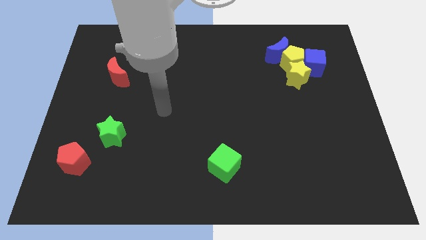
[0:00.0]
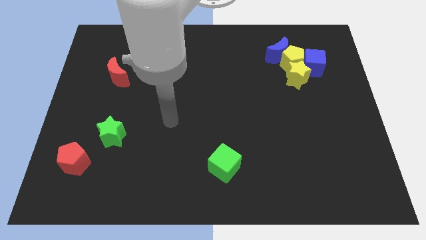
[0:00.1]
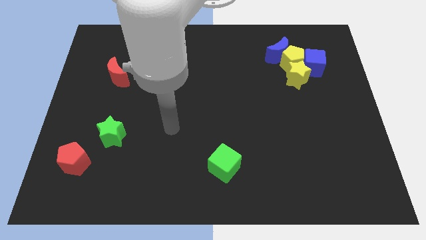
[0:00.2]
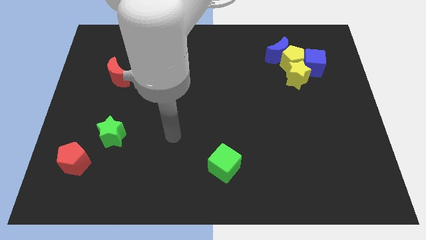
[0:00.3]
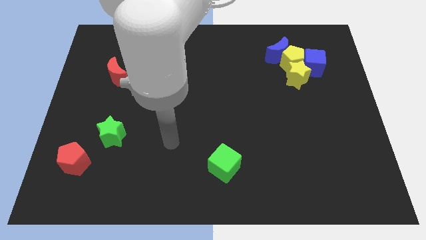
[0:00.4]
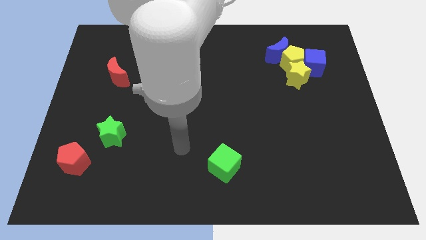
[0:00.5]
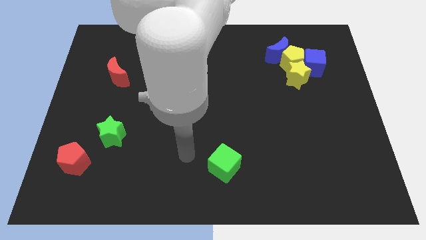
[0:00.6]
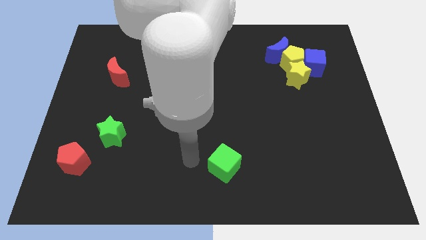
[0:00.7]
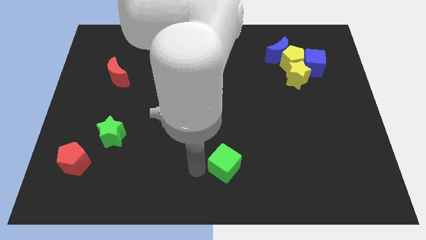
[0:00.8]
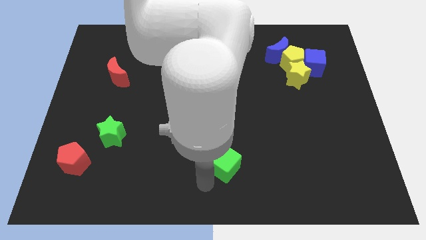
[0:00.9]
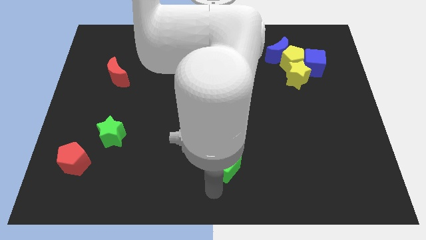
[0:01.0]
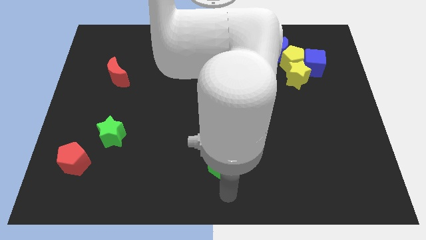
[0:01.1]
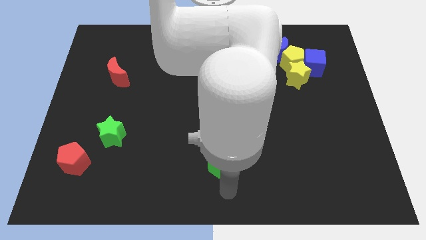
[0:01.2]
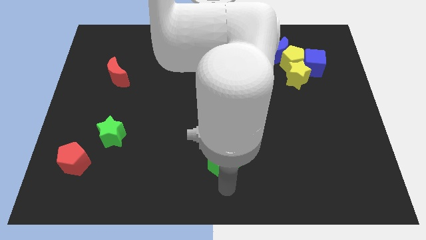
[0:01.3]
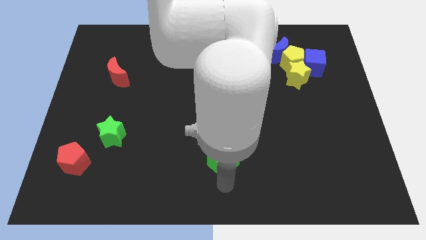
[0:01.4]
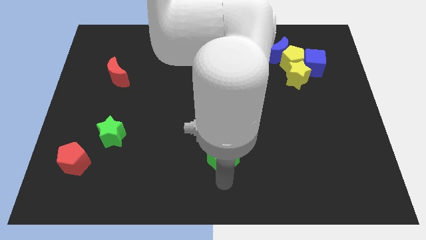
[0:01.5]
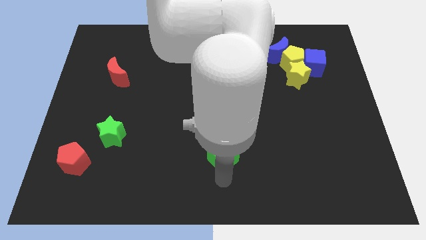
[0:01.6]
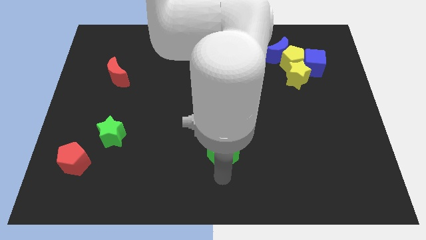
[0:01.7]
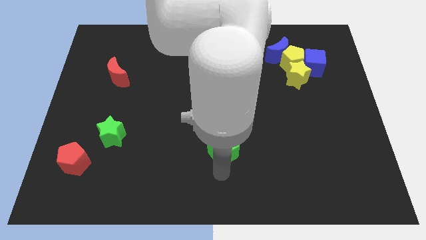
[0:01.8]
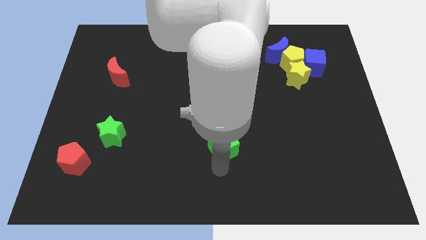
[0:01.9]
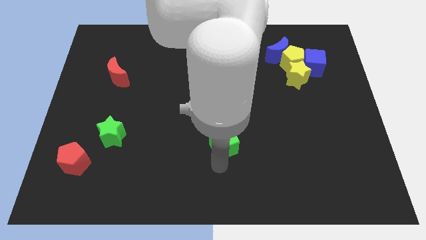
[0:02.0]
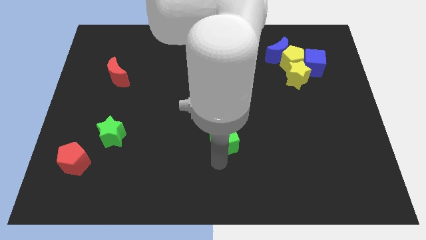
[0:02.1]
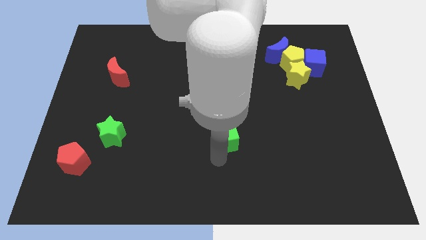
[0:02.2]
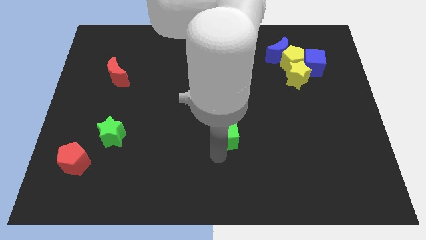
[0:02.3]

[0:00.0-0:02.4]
push the green cube a bit up

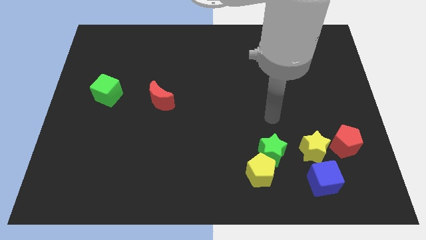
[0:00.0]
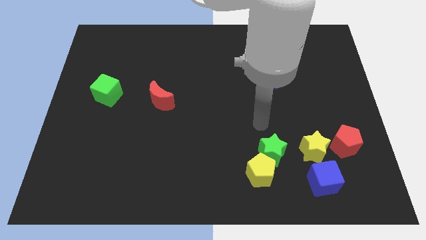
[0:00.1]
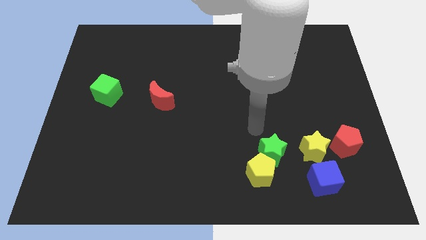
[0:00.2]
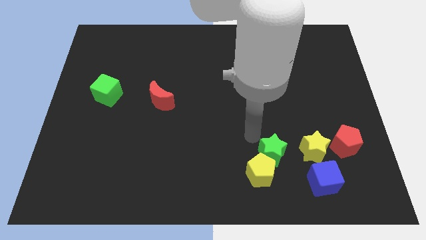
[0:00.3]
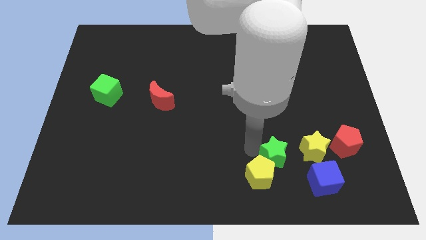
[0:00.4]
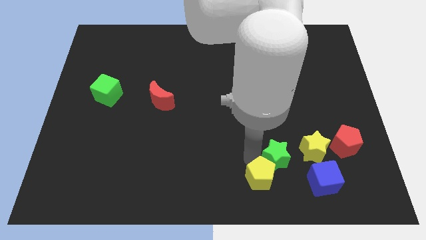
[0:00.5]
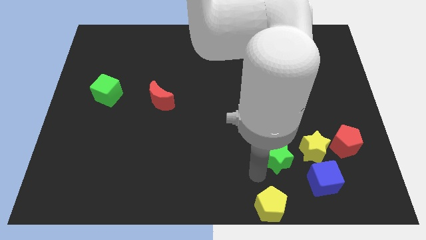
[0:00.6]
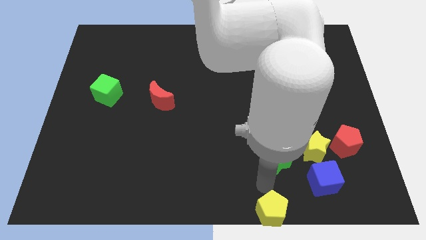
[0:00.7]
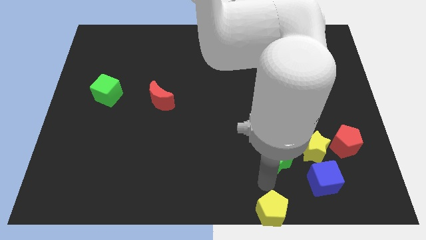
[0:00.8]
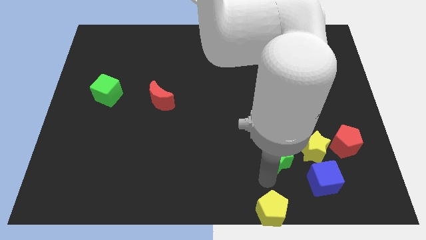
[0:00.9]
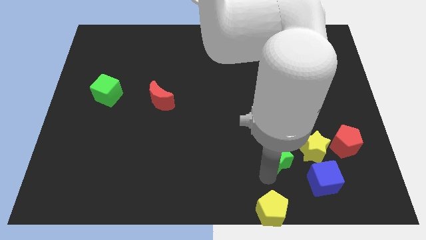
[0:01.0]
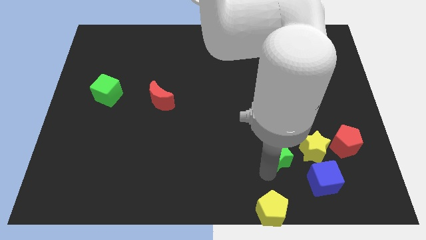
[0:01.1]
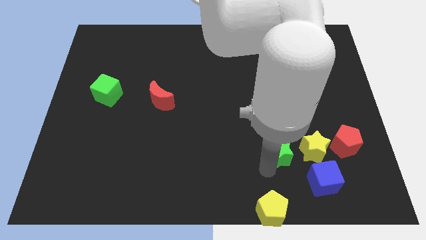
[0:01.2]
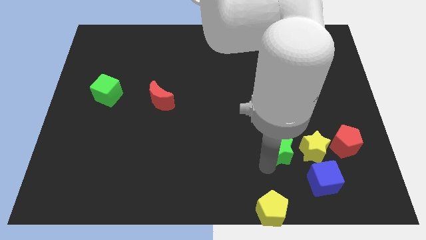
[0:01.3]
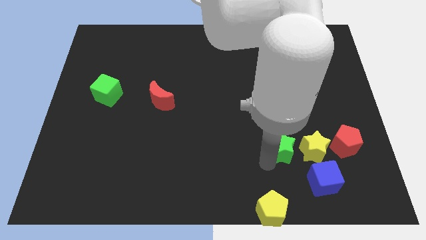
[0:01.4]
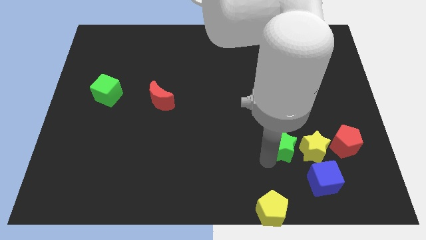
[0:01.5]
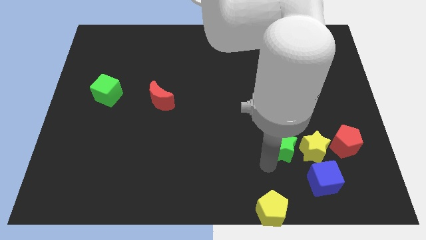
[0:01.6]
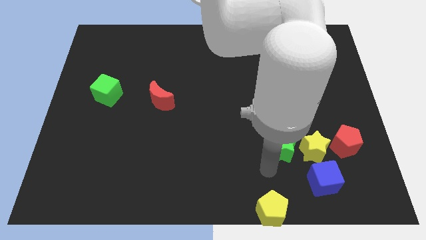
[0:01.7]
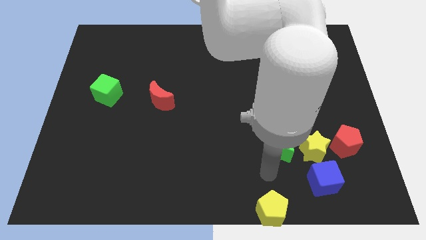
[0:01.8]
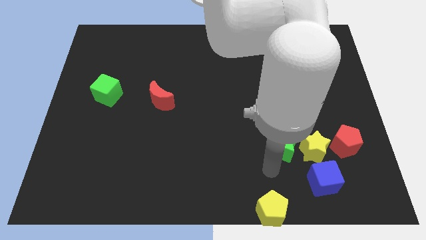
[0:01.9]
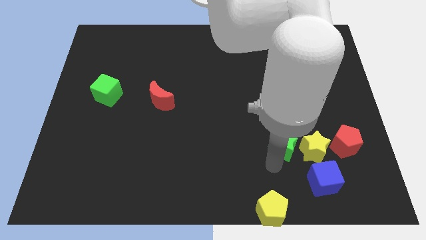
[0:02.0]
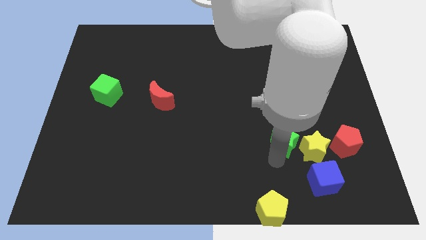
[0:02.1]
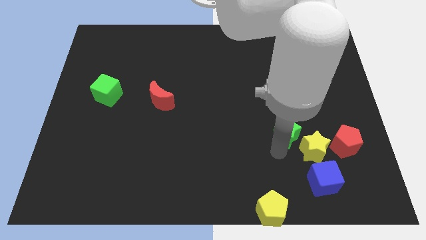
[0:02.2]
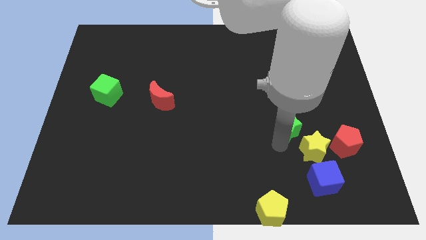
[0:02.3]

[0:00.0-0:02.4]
slide the green star a little up and then right

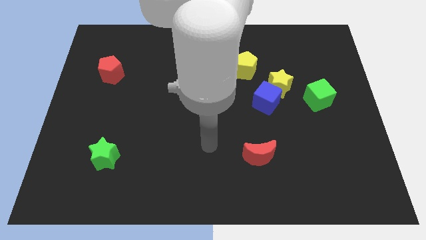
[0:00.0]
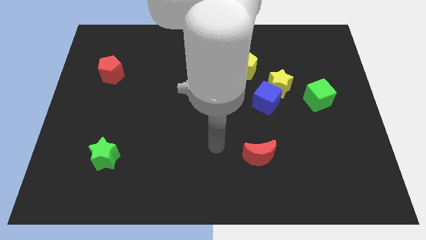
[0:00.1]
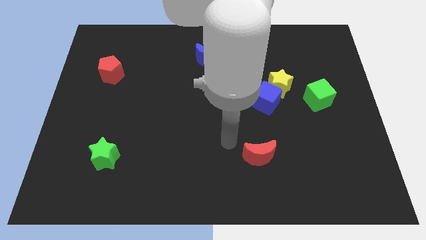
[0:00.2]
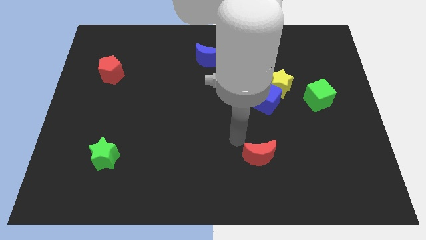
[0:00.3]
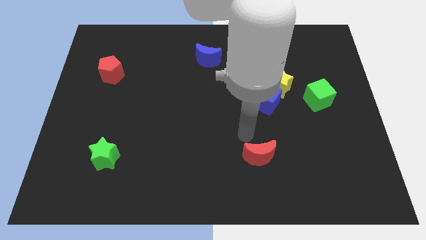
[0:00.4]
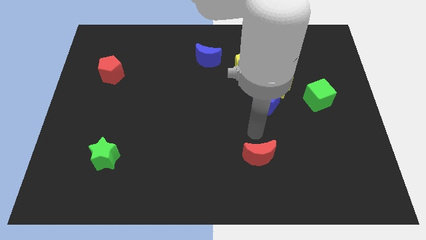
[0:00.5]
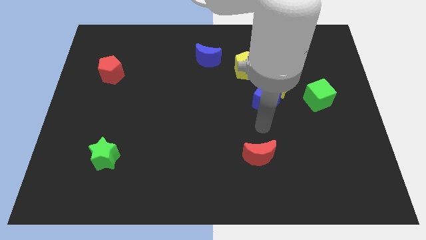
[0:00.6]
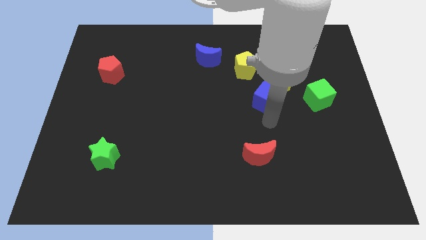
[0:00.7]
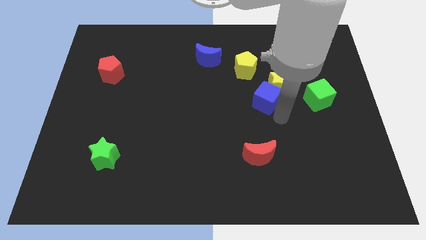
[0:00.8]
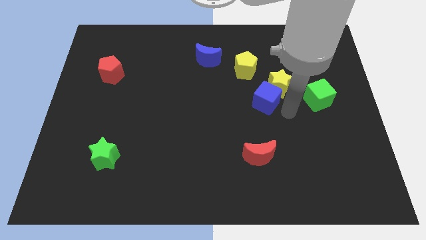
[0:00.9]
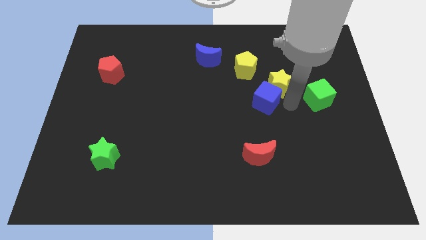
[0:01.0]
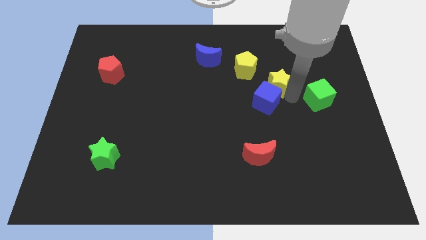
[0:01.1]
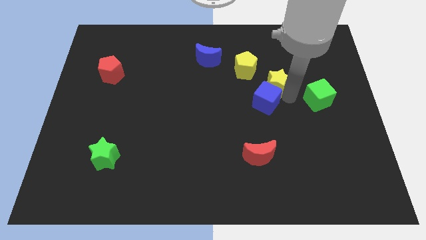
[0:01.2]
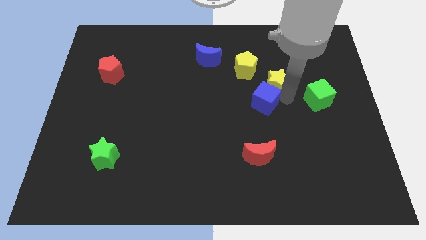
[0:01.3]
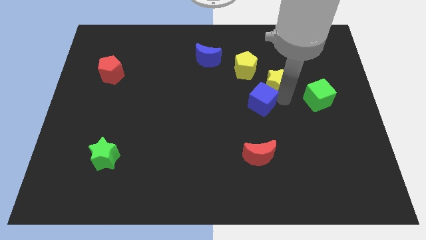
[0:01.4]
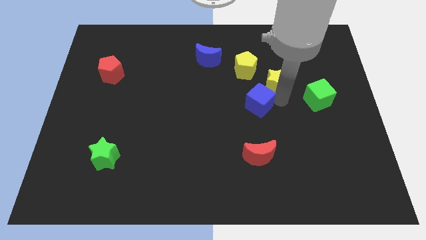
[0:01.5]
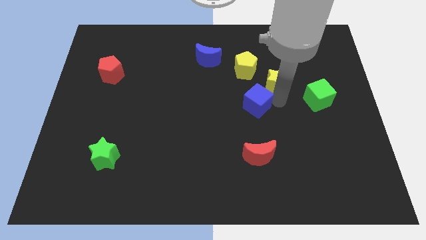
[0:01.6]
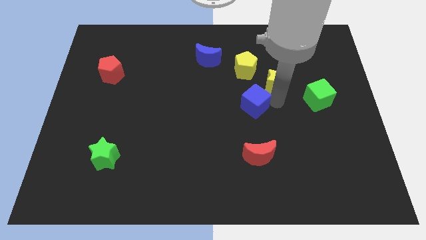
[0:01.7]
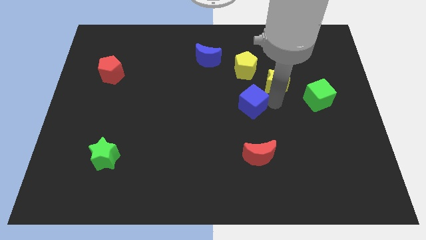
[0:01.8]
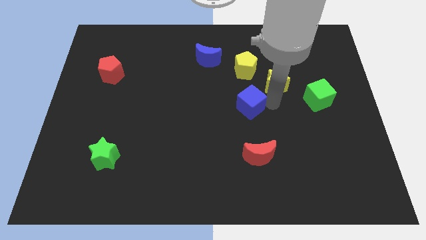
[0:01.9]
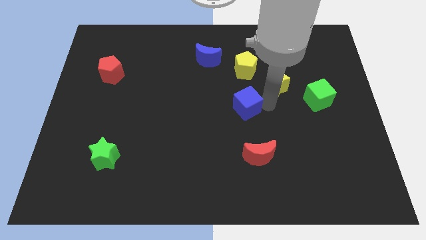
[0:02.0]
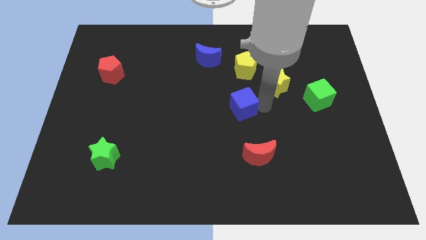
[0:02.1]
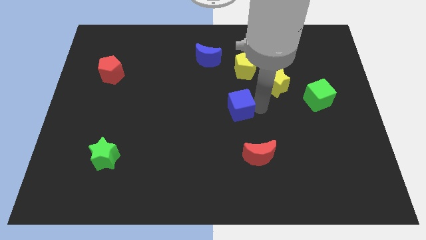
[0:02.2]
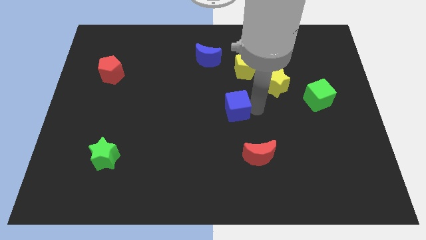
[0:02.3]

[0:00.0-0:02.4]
slide the blue cube to the left slightly

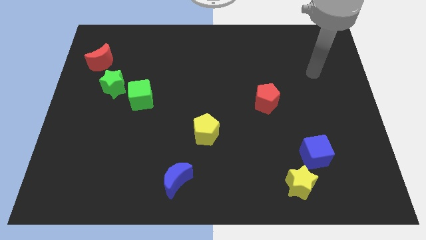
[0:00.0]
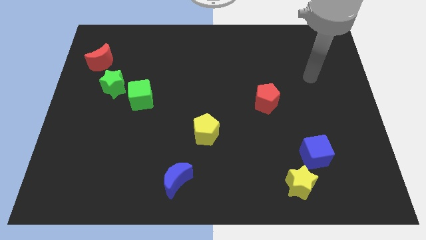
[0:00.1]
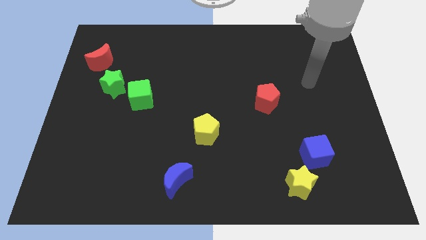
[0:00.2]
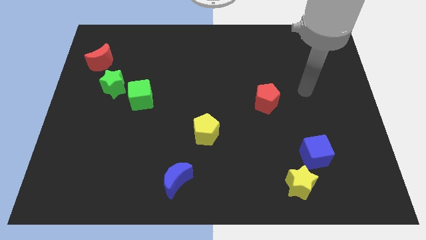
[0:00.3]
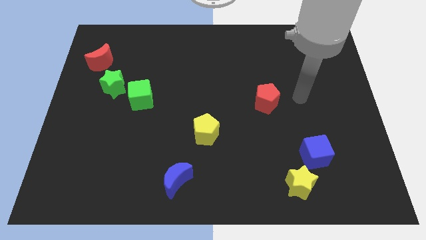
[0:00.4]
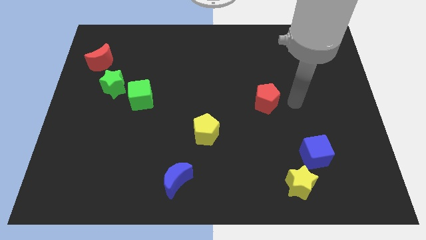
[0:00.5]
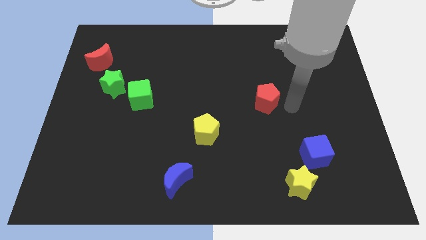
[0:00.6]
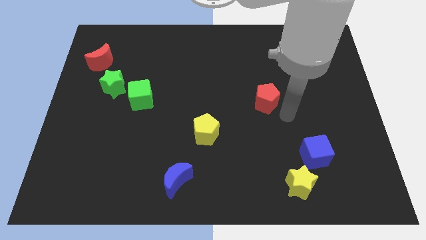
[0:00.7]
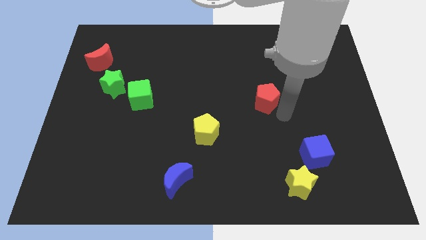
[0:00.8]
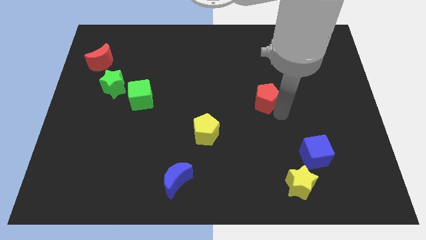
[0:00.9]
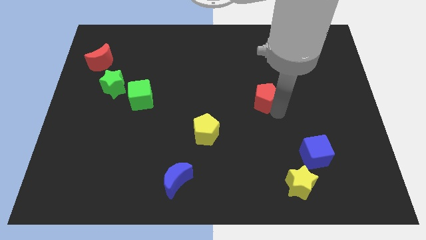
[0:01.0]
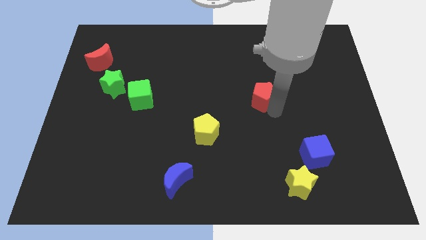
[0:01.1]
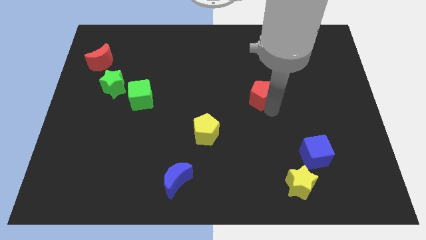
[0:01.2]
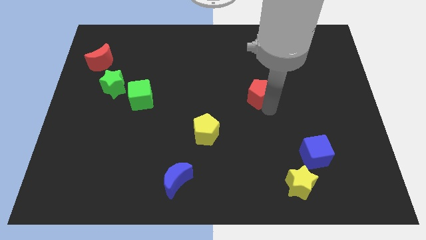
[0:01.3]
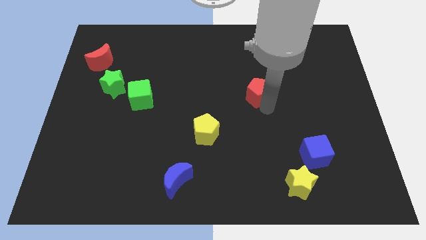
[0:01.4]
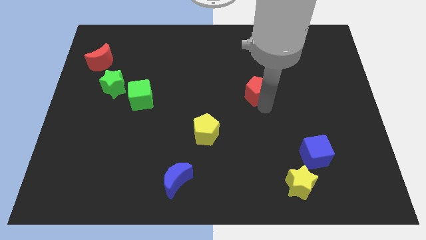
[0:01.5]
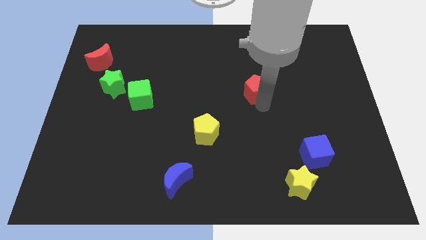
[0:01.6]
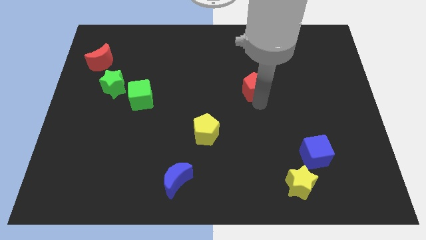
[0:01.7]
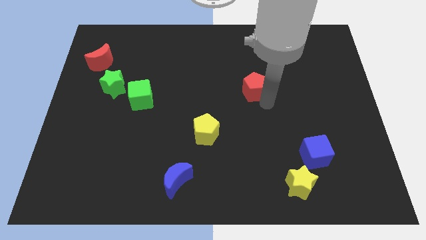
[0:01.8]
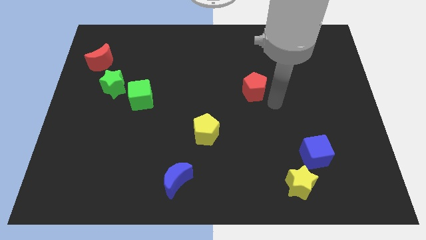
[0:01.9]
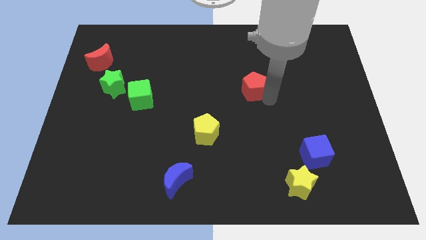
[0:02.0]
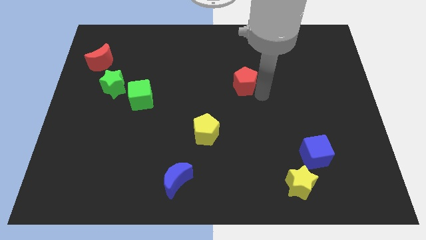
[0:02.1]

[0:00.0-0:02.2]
move the red pentagon diagonally upwards and to the left a bit
